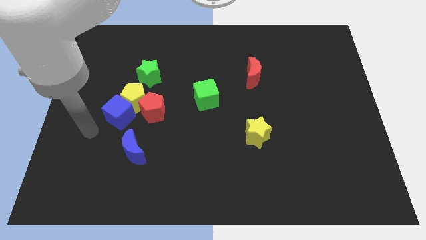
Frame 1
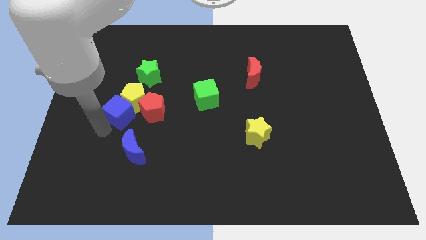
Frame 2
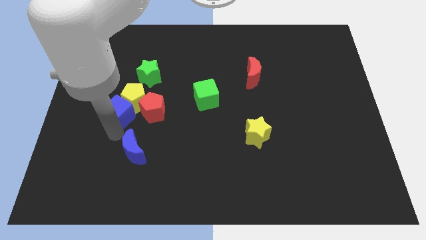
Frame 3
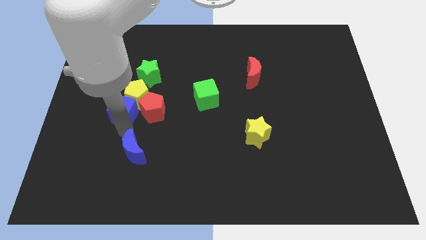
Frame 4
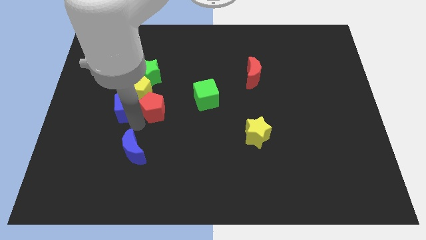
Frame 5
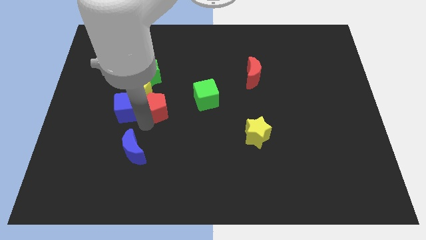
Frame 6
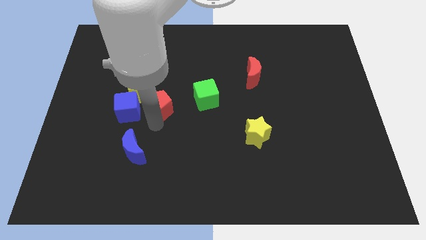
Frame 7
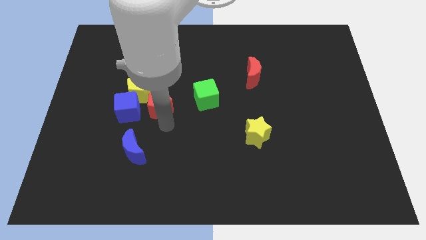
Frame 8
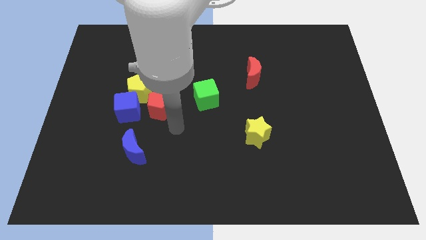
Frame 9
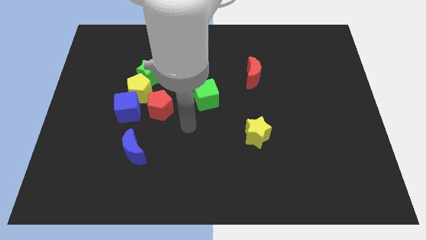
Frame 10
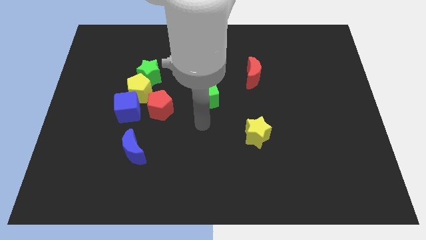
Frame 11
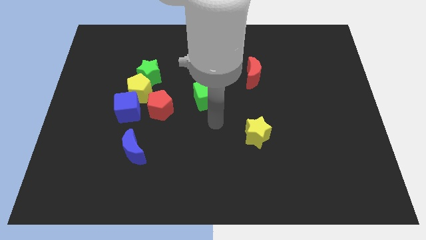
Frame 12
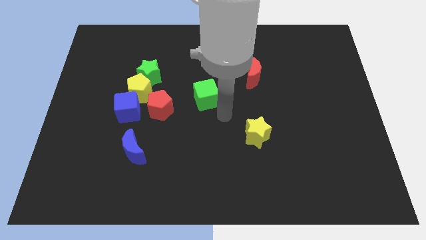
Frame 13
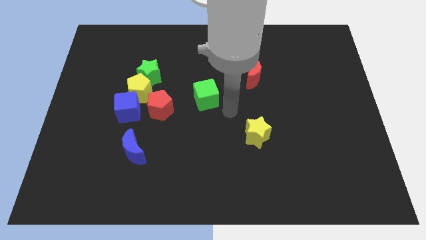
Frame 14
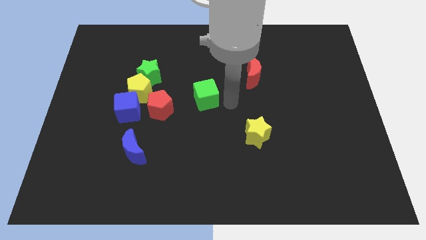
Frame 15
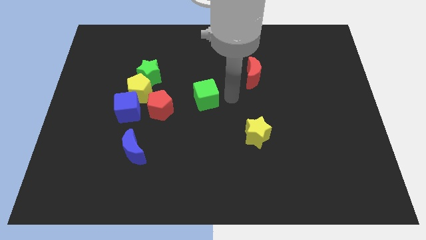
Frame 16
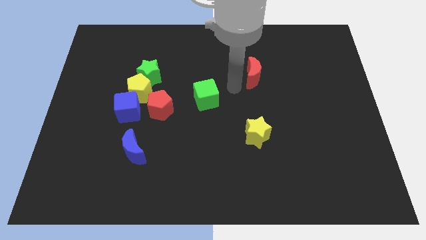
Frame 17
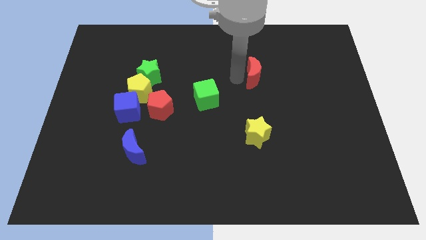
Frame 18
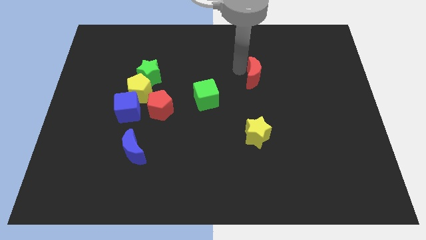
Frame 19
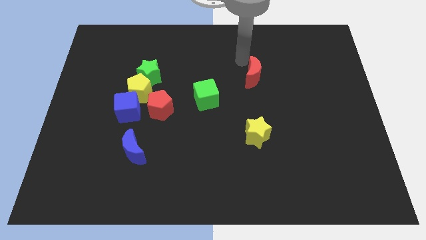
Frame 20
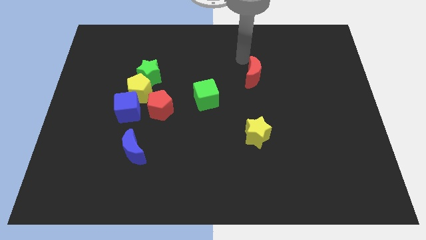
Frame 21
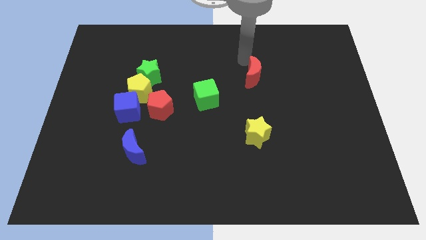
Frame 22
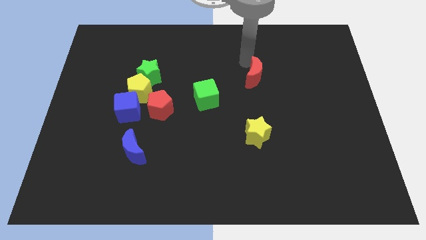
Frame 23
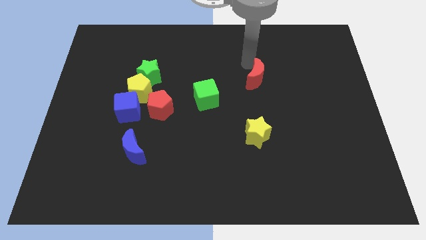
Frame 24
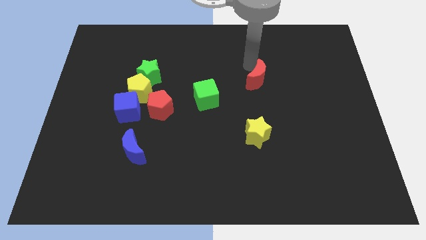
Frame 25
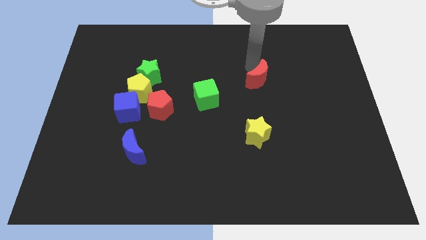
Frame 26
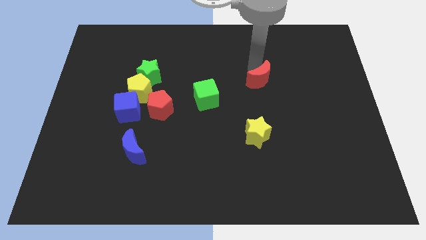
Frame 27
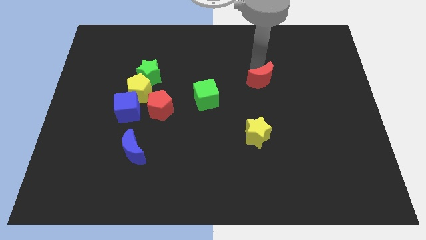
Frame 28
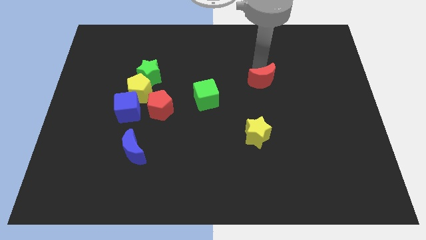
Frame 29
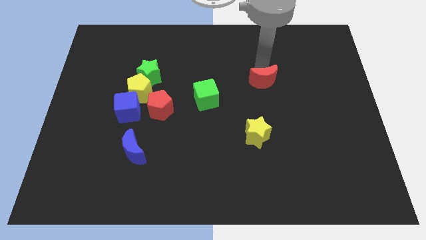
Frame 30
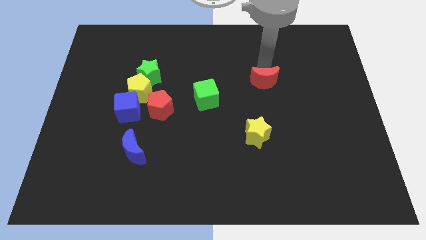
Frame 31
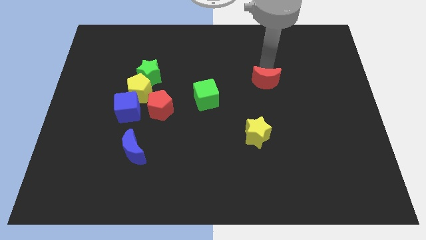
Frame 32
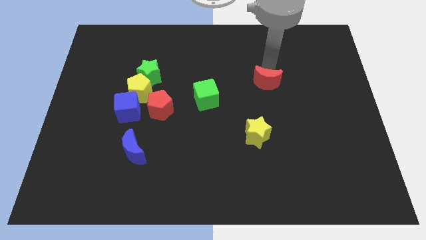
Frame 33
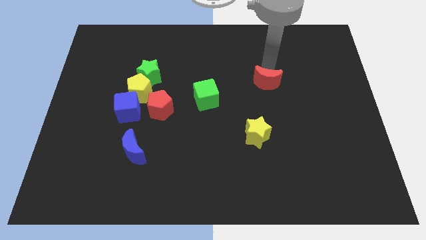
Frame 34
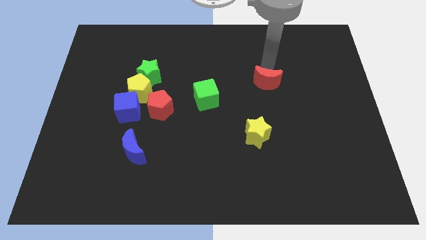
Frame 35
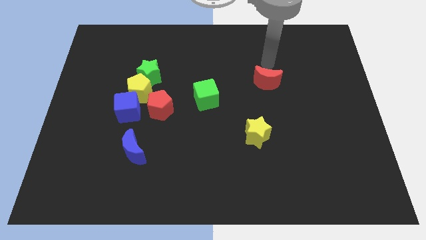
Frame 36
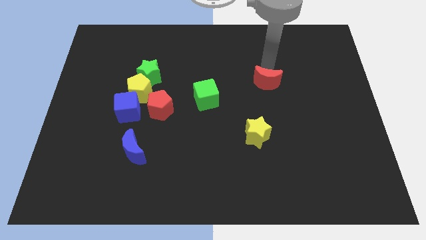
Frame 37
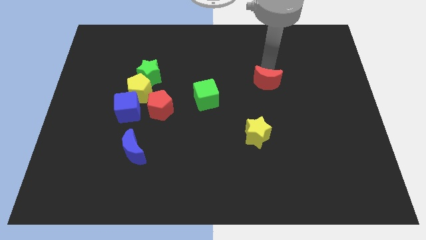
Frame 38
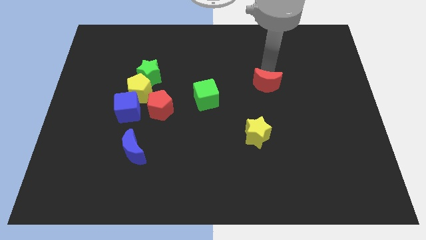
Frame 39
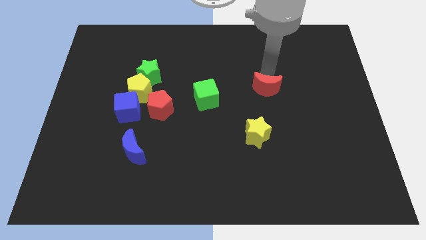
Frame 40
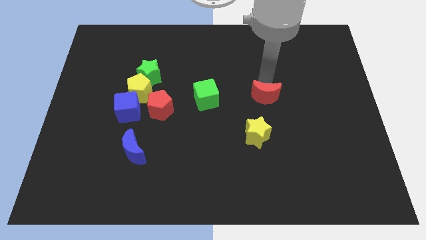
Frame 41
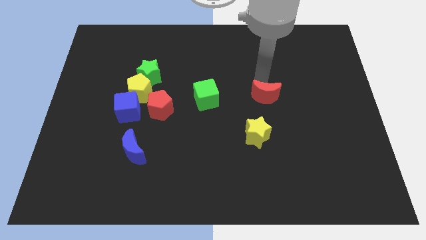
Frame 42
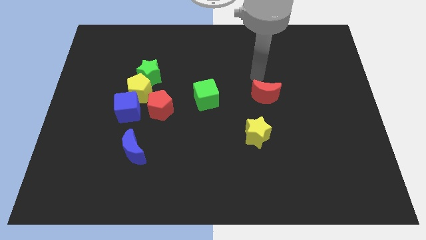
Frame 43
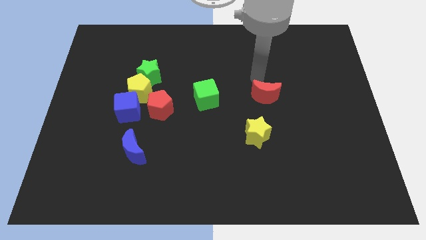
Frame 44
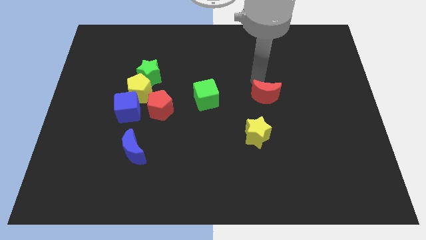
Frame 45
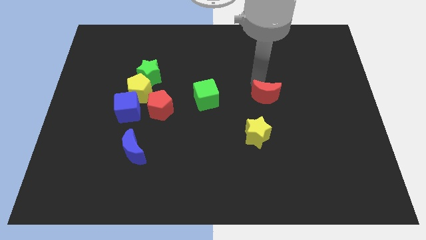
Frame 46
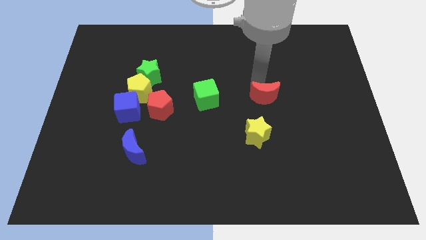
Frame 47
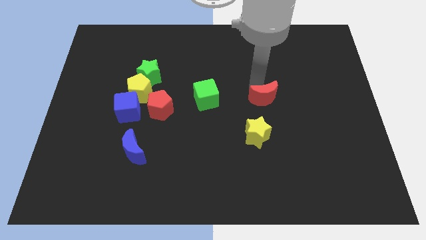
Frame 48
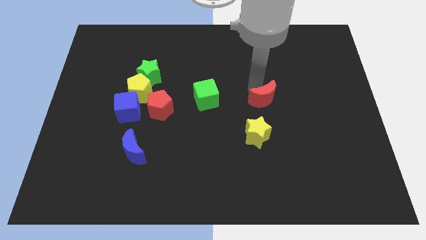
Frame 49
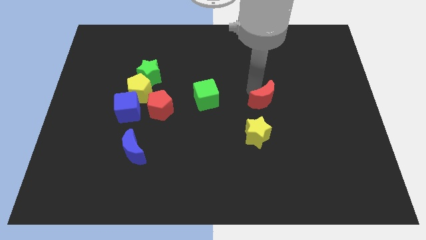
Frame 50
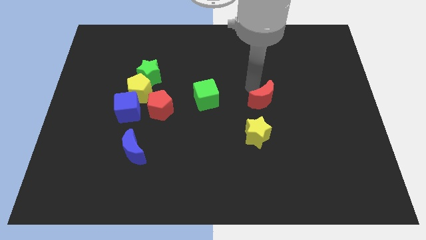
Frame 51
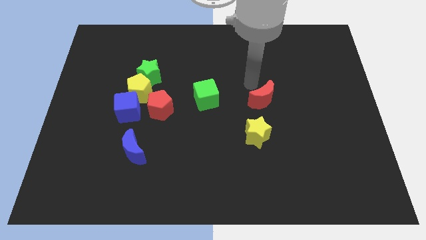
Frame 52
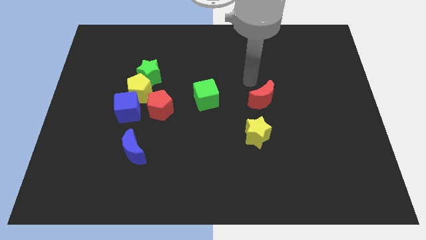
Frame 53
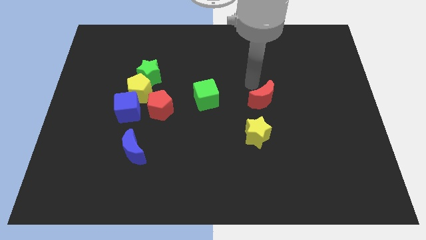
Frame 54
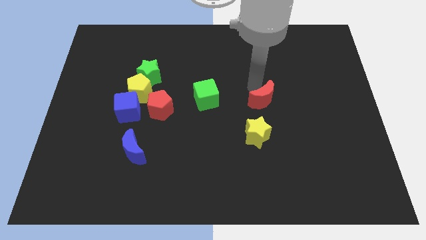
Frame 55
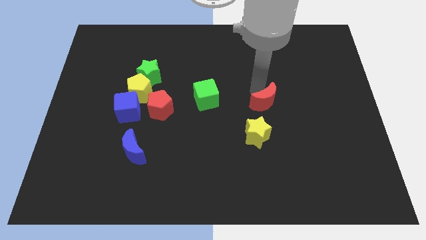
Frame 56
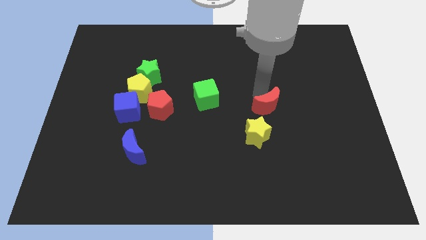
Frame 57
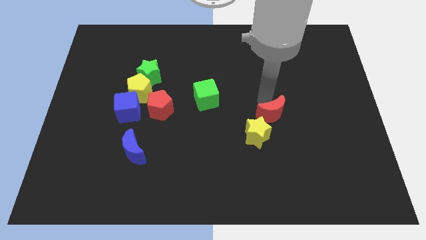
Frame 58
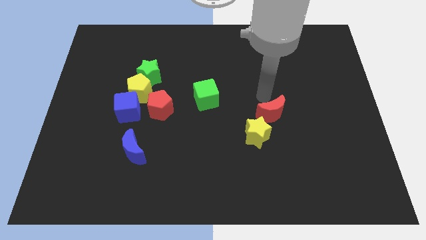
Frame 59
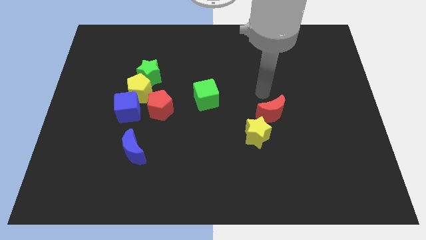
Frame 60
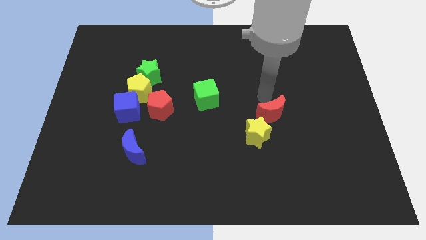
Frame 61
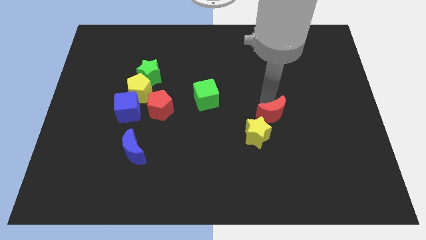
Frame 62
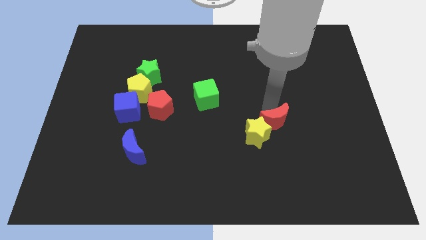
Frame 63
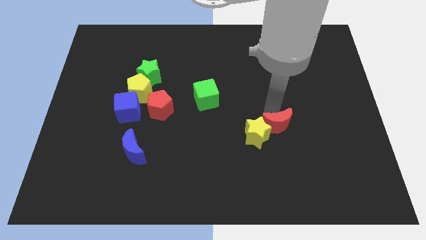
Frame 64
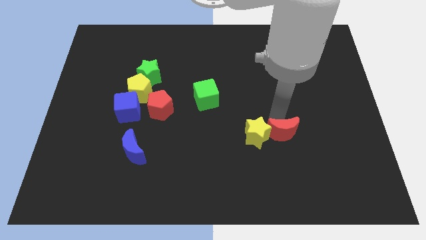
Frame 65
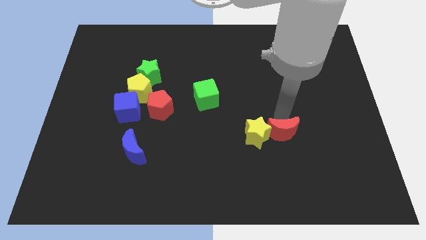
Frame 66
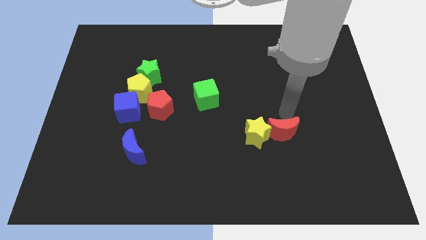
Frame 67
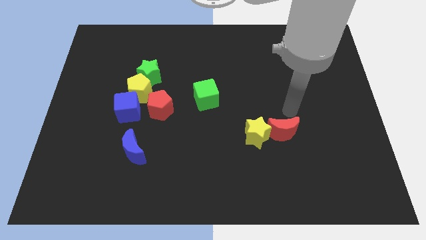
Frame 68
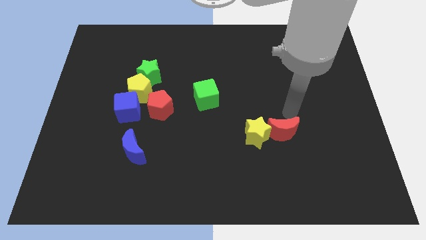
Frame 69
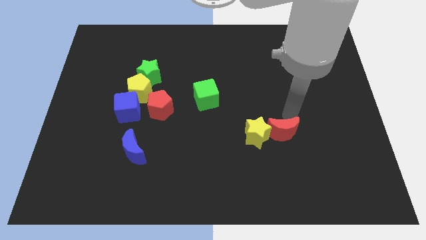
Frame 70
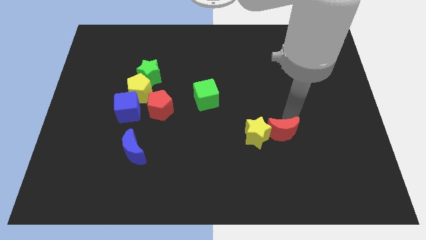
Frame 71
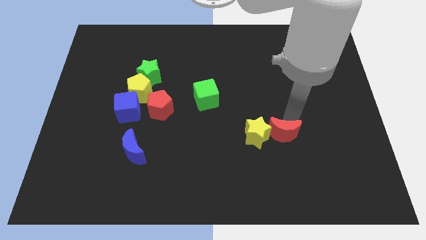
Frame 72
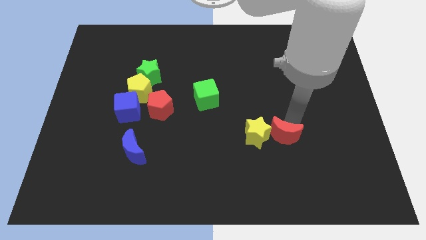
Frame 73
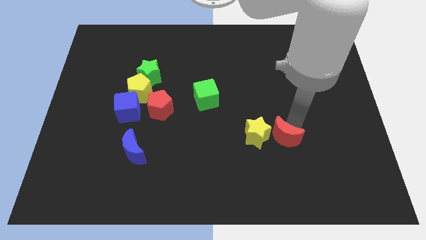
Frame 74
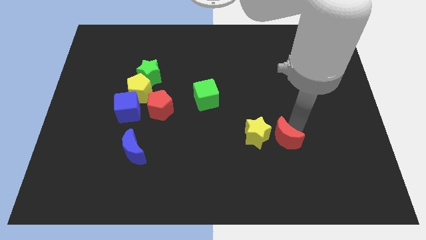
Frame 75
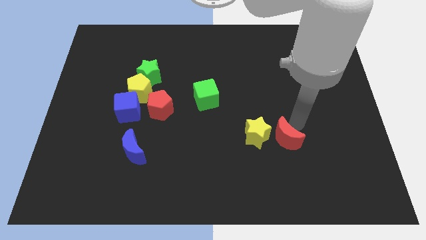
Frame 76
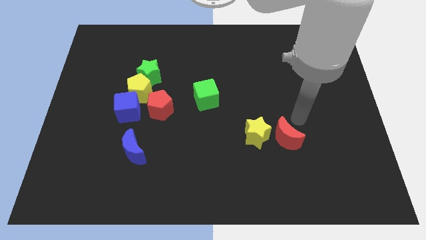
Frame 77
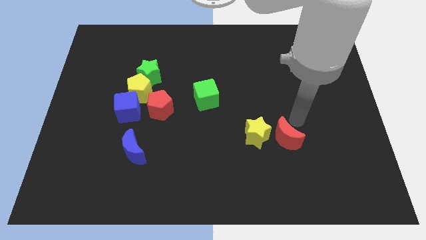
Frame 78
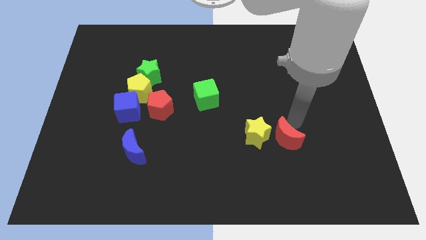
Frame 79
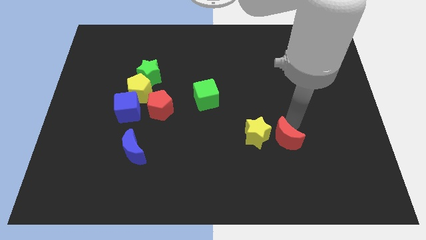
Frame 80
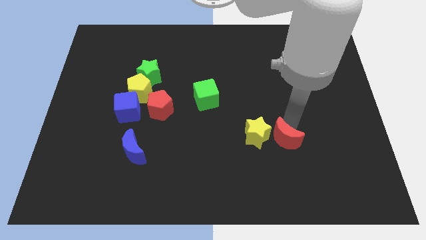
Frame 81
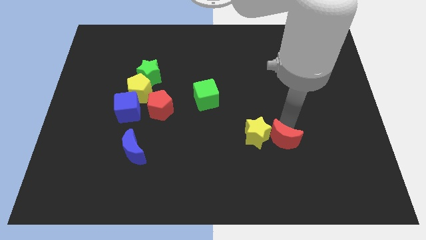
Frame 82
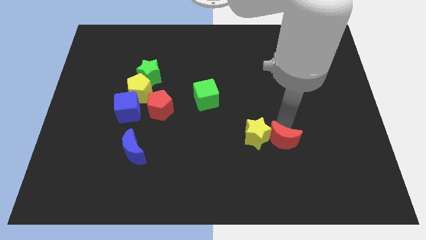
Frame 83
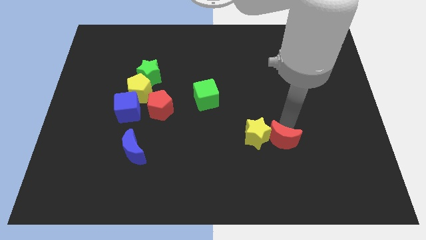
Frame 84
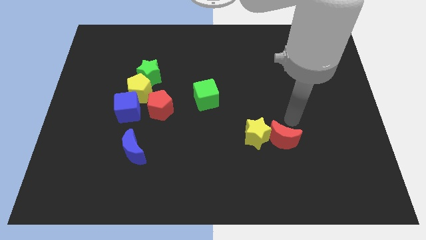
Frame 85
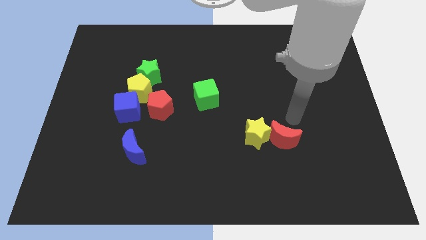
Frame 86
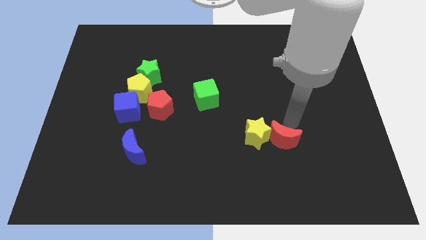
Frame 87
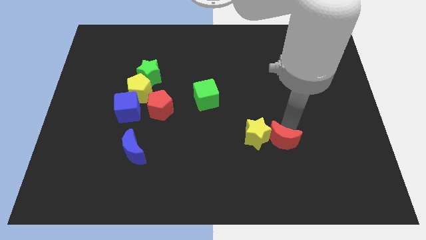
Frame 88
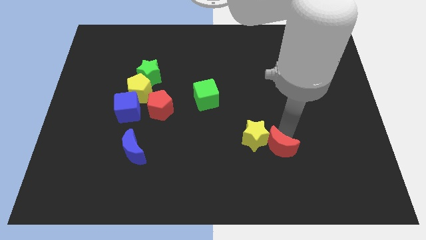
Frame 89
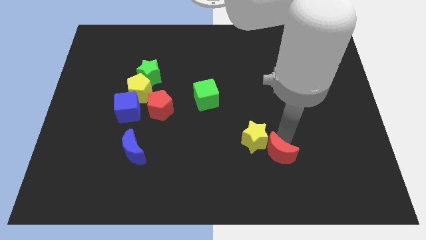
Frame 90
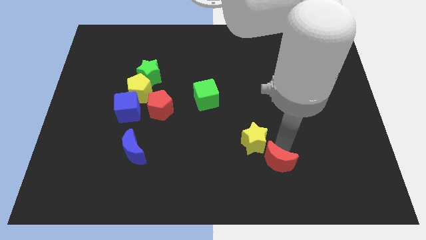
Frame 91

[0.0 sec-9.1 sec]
slide the red moon to the bottom side of the yellow star
